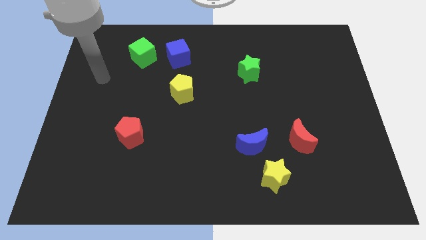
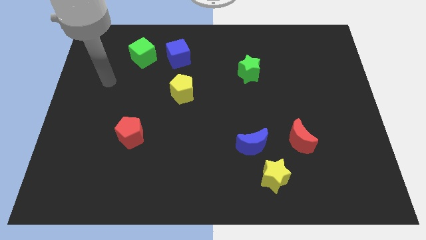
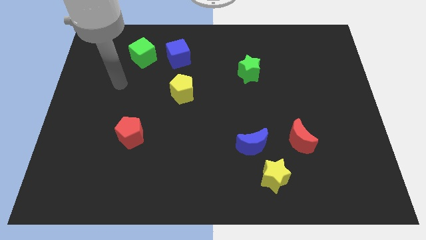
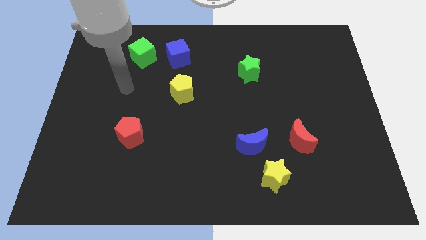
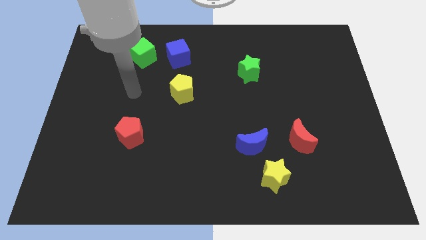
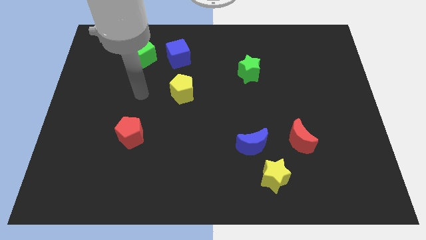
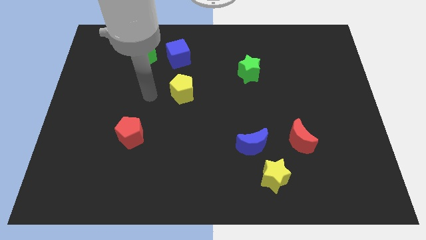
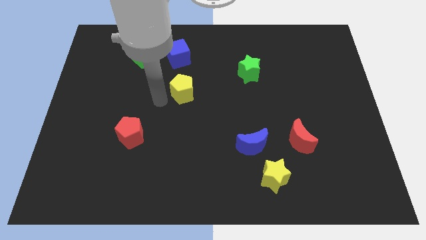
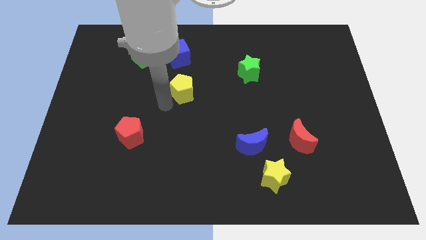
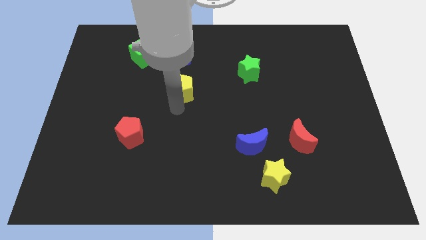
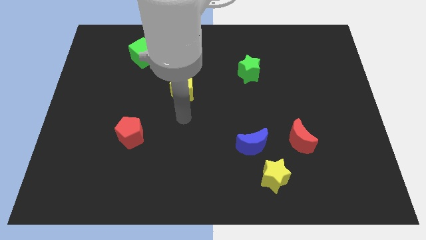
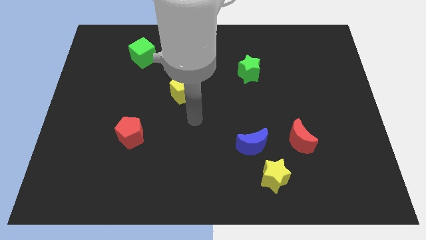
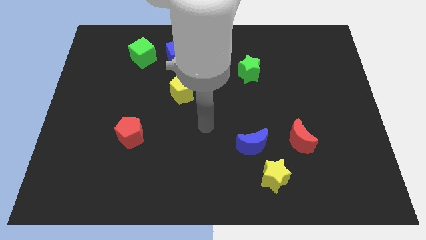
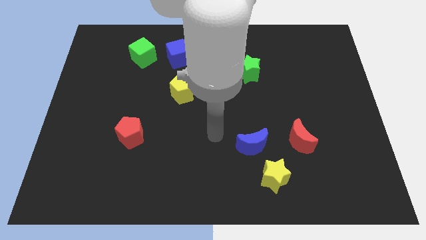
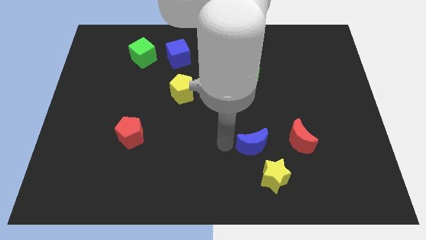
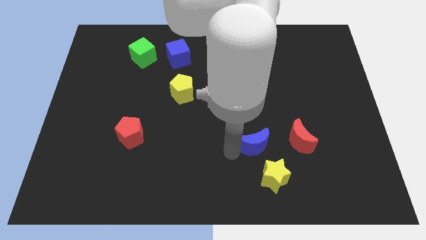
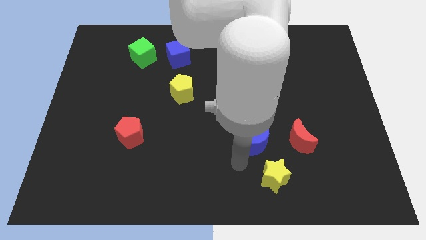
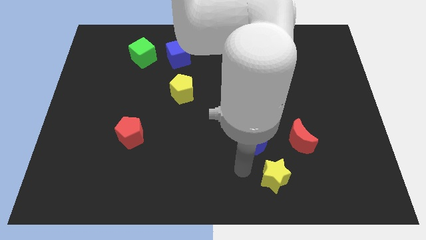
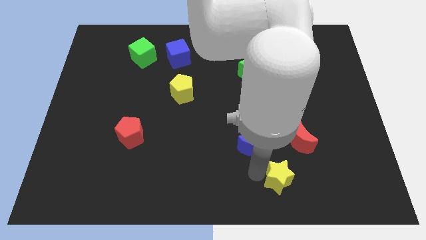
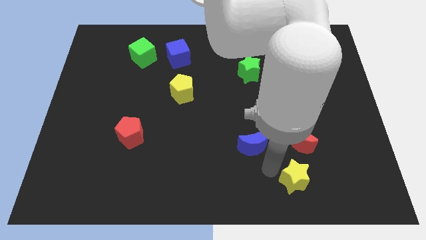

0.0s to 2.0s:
separate the blue moon from the yellow star

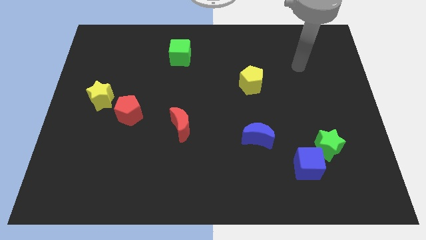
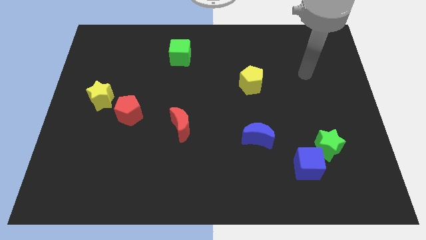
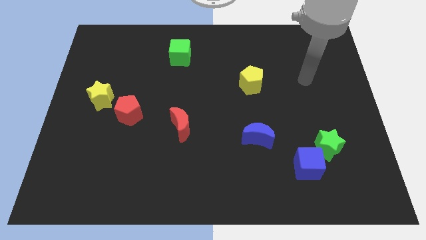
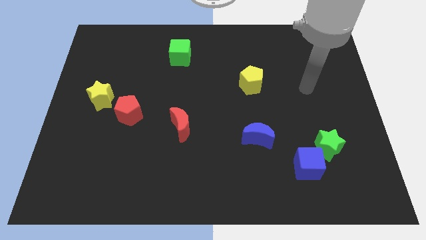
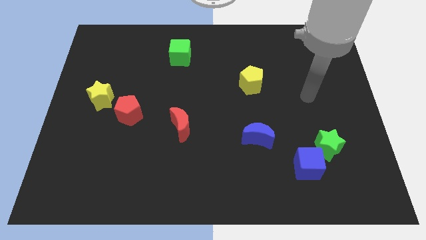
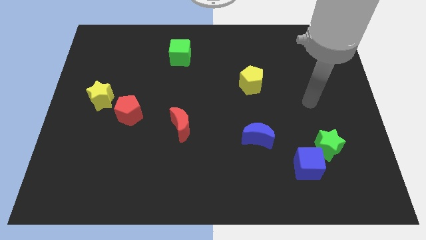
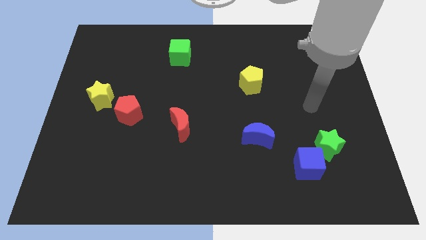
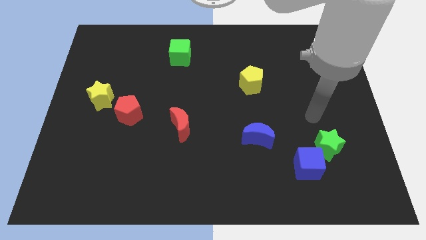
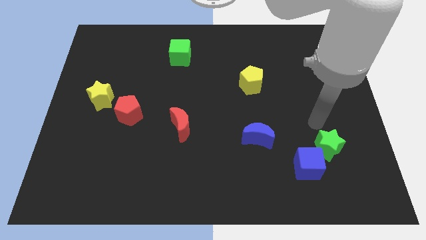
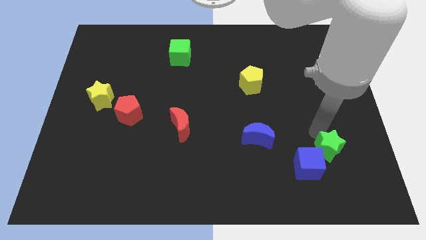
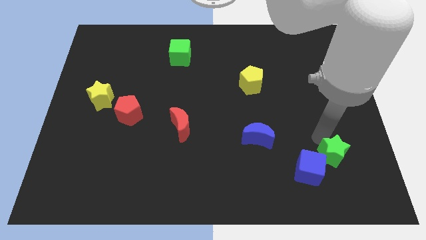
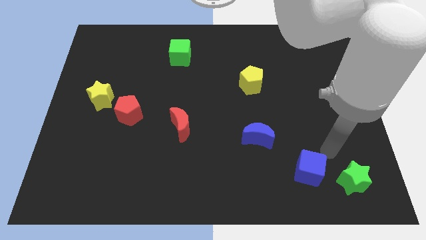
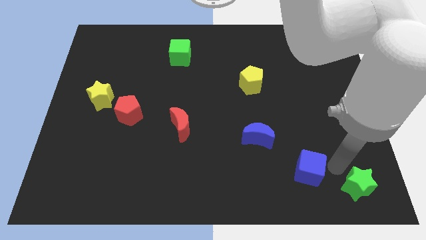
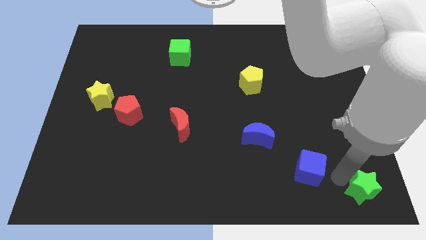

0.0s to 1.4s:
separate the blue cube from the green star

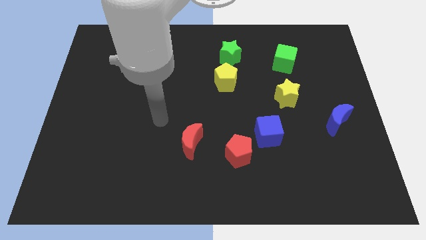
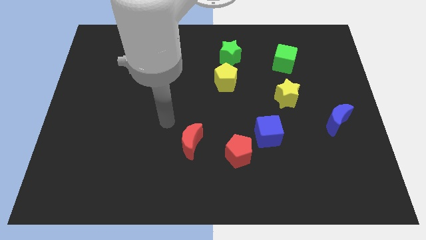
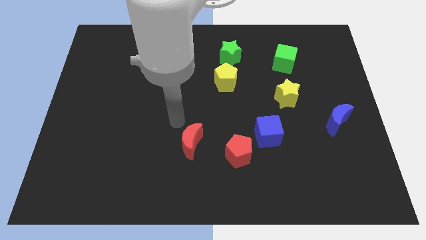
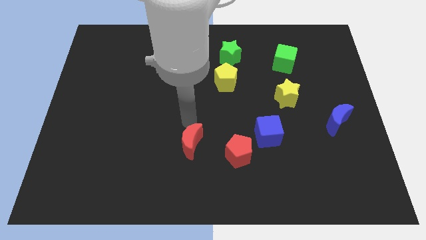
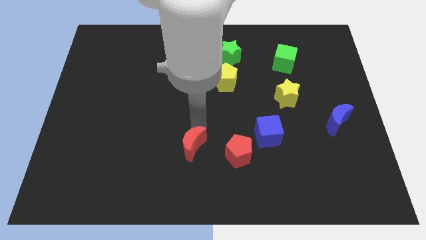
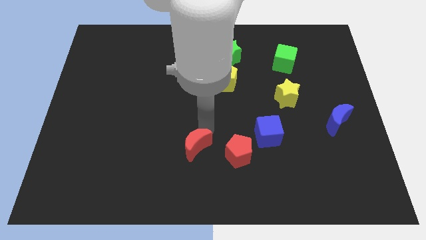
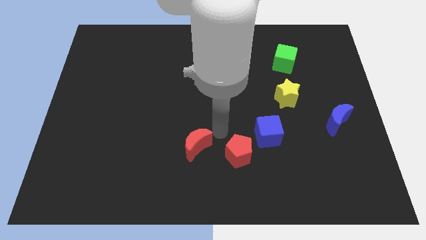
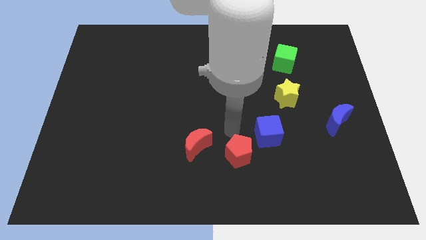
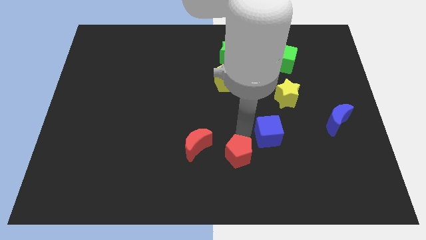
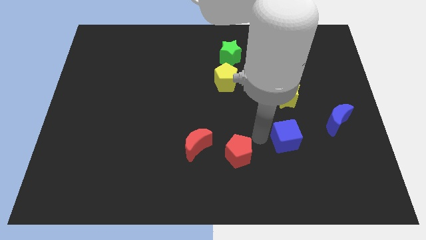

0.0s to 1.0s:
pull the red pentagon apart from the blue cube

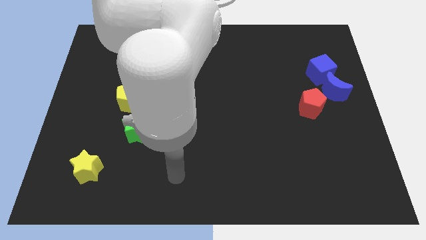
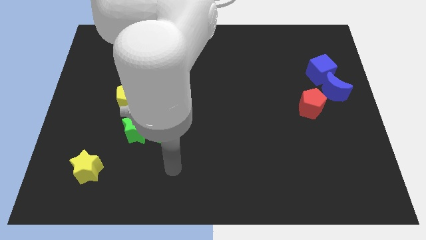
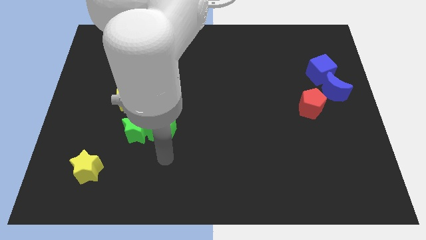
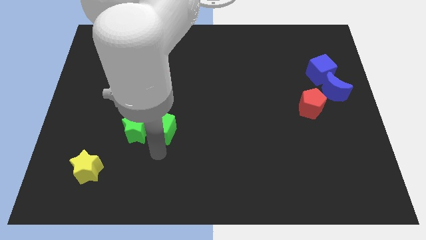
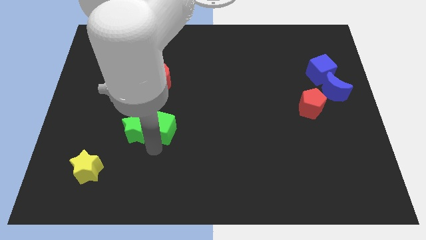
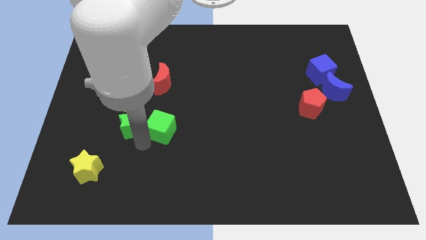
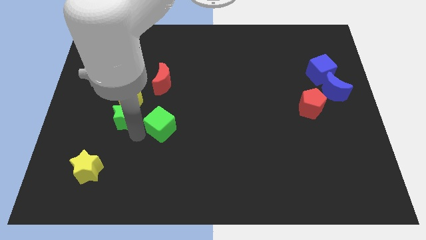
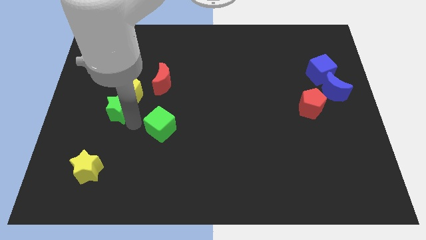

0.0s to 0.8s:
move the green cube away from the green star

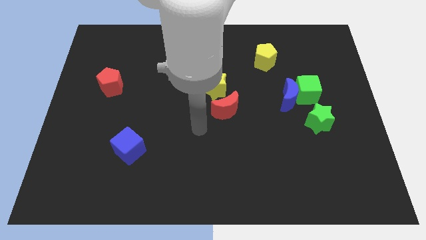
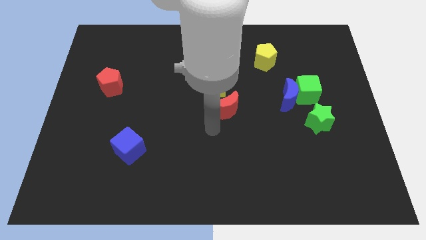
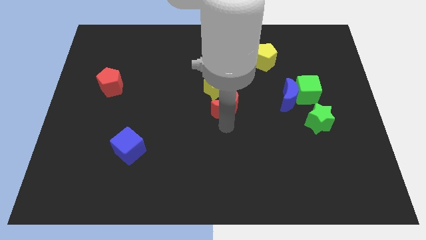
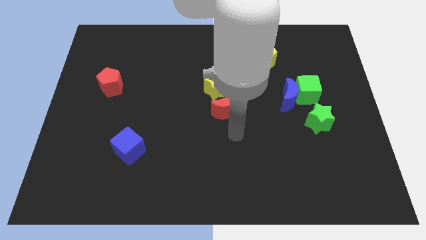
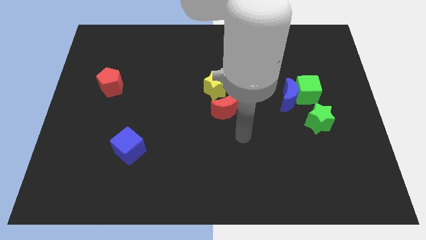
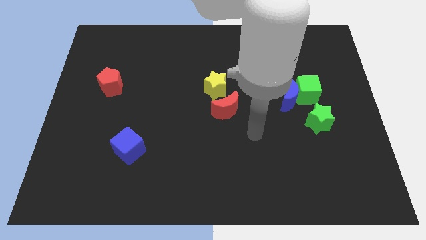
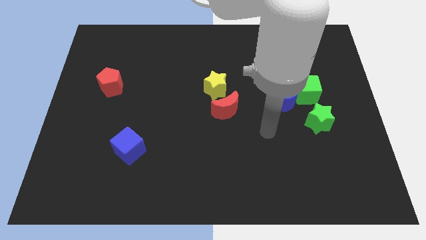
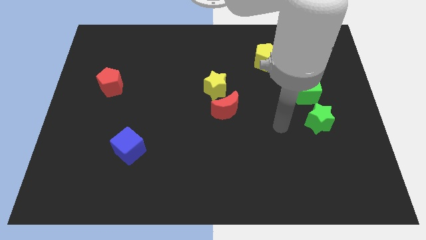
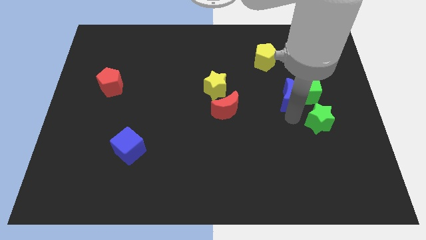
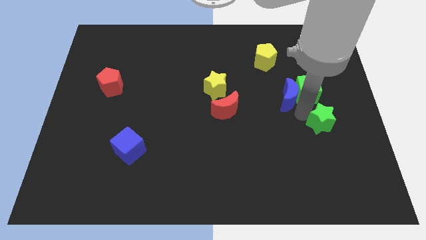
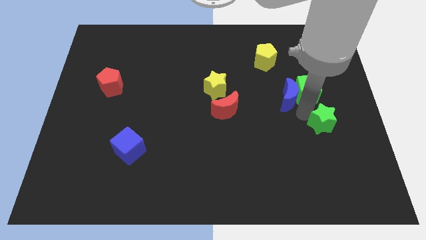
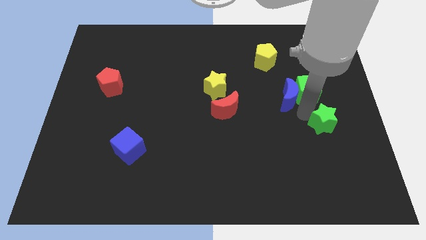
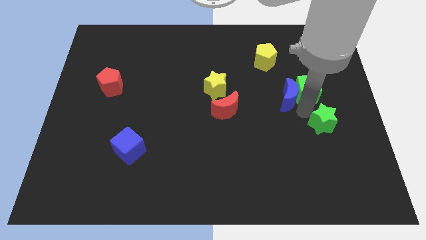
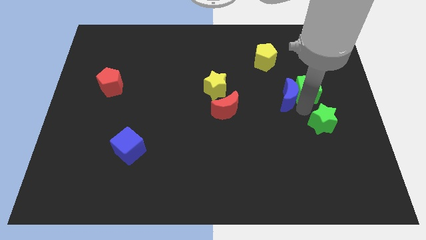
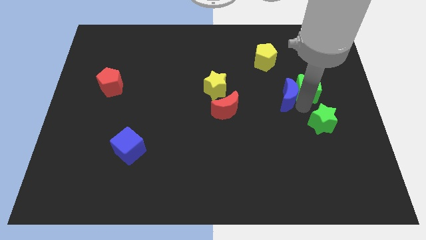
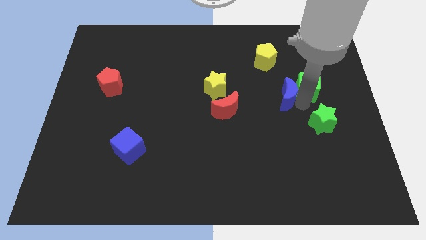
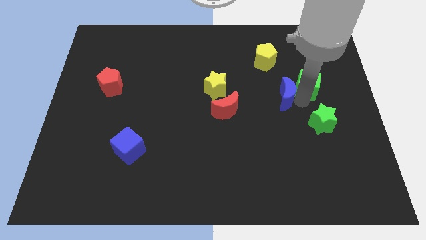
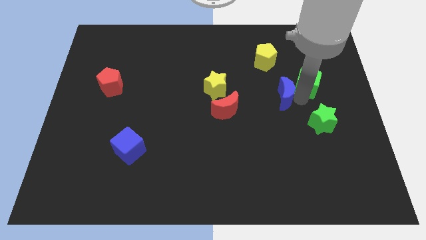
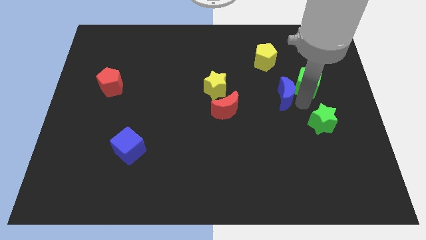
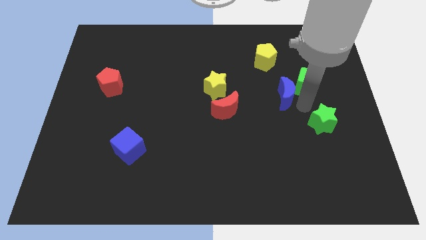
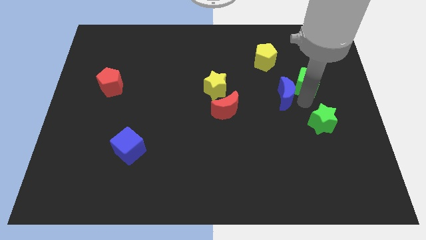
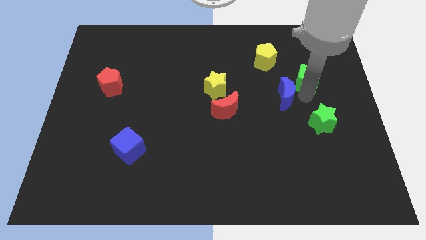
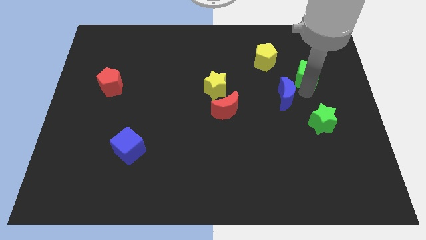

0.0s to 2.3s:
pull the green cube apart from the blue moon and green star

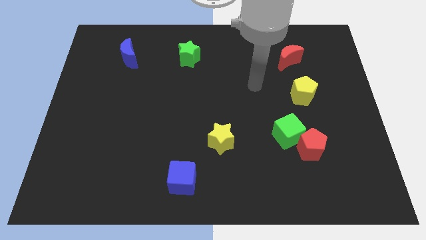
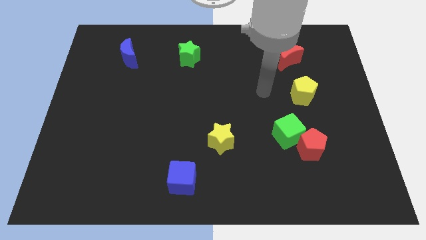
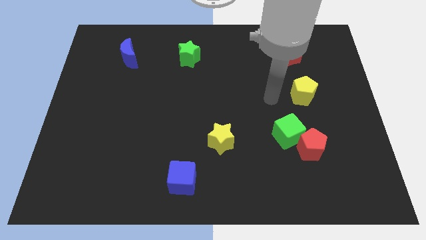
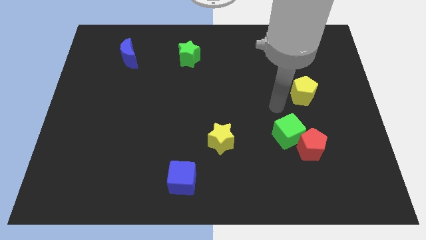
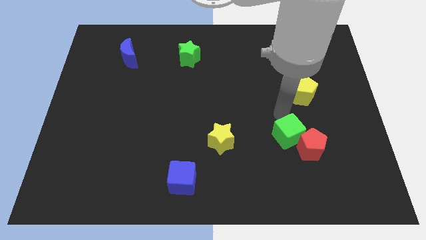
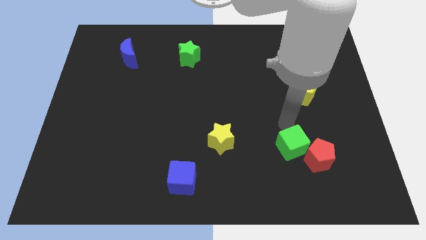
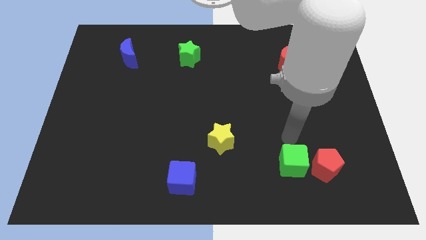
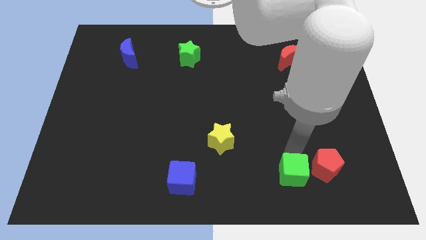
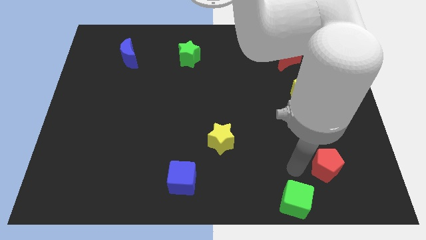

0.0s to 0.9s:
pull the red pentagon apart from the green cube

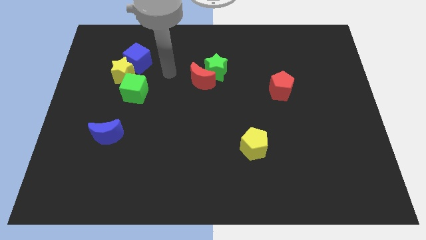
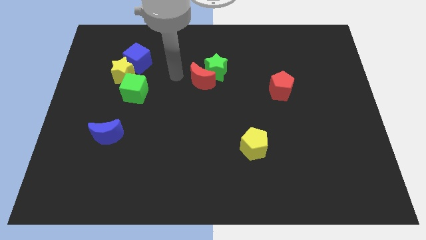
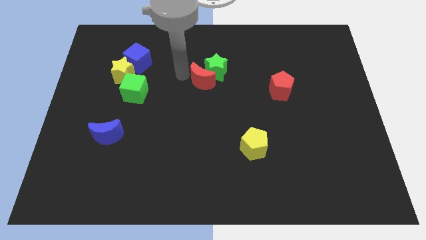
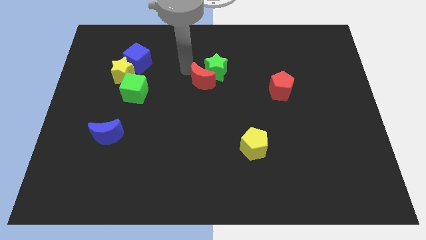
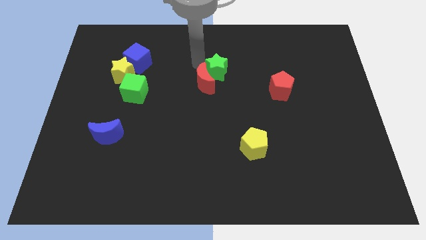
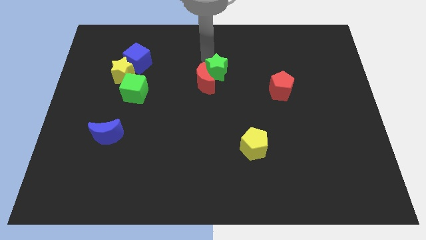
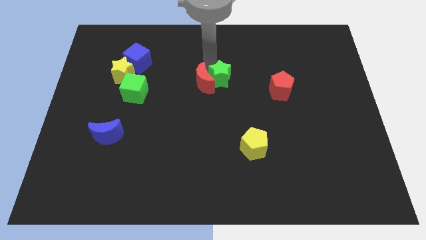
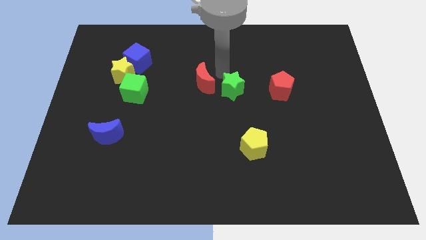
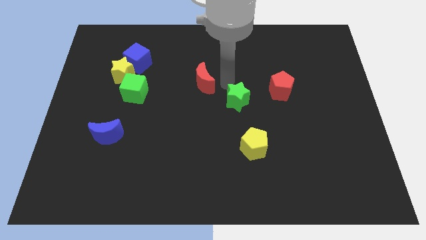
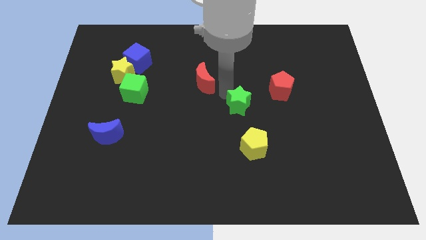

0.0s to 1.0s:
pull the red moon apart from the green star

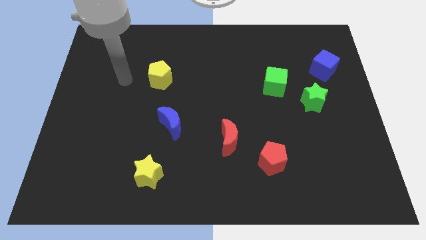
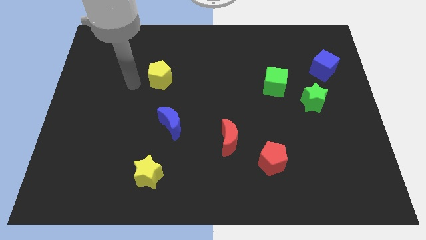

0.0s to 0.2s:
pull the green cube apart from the green star
